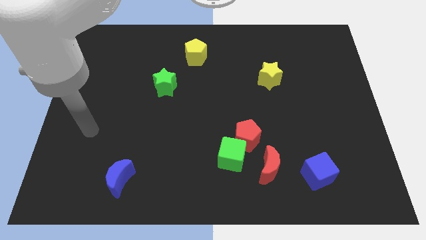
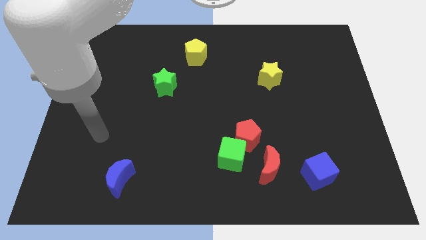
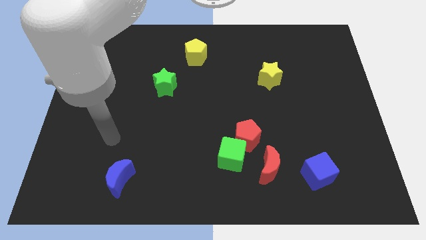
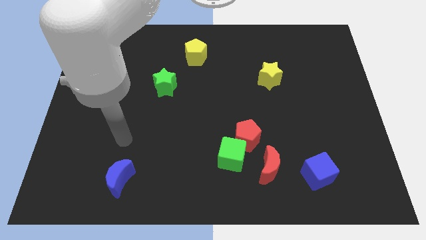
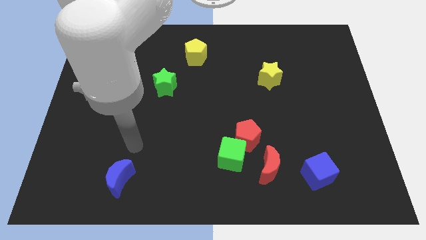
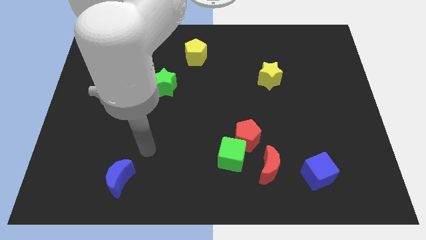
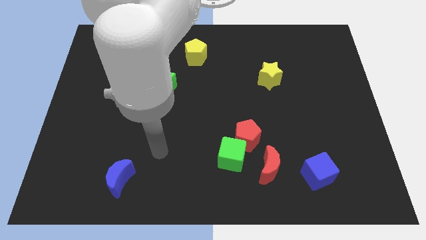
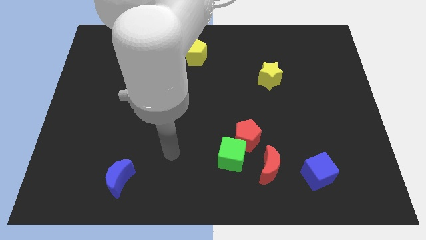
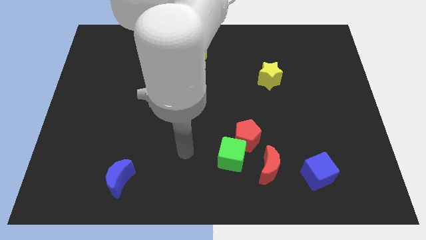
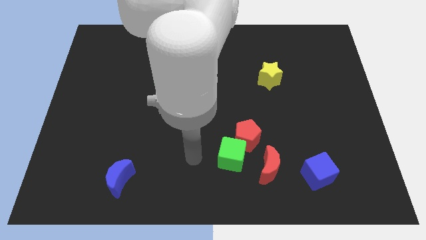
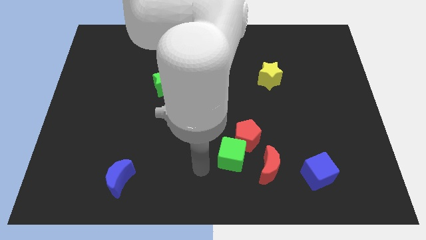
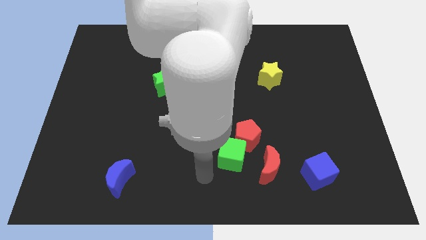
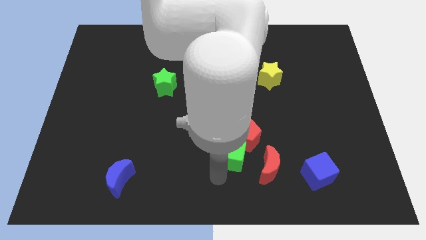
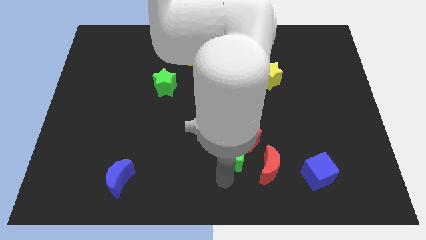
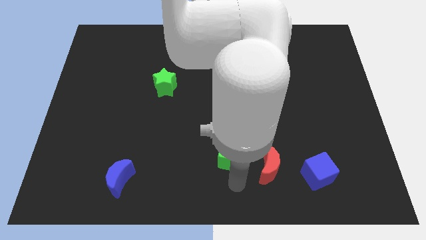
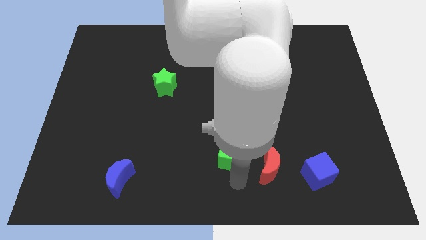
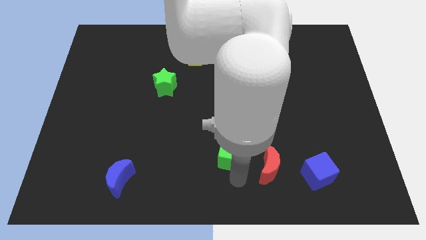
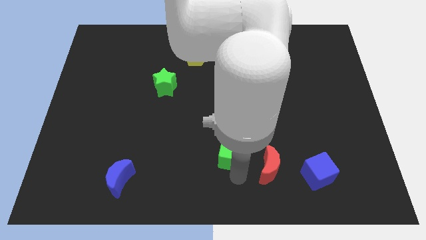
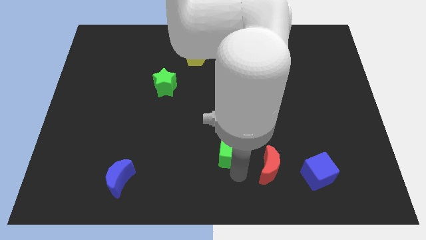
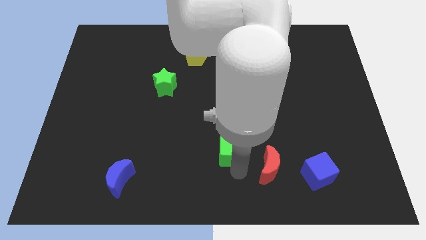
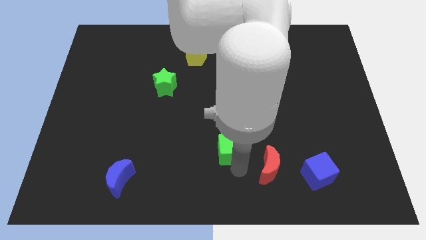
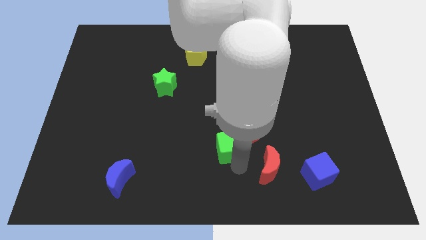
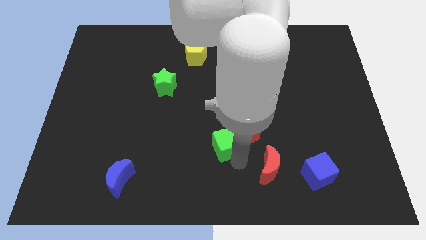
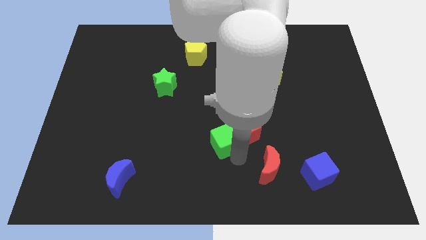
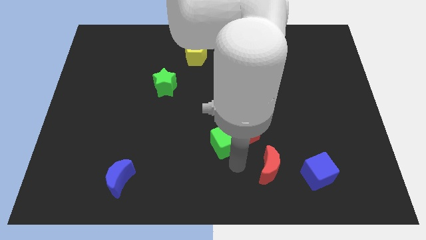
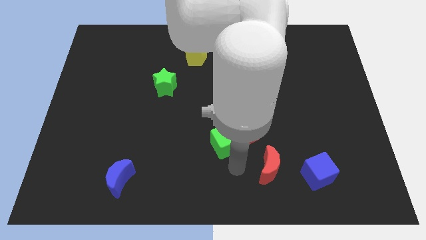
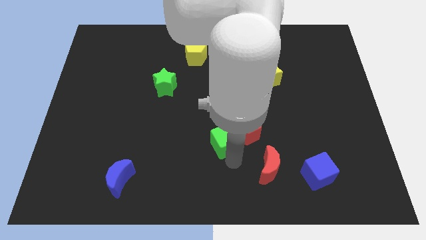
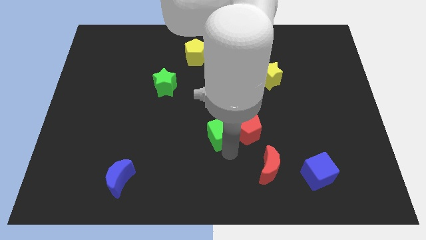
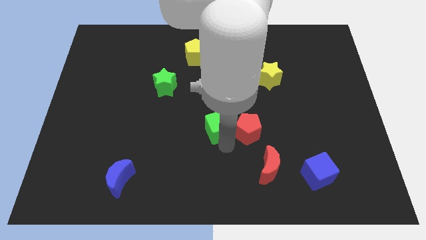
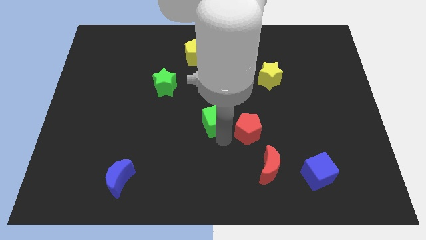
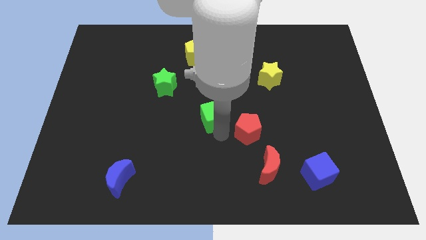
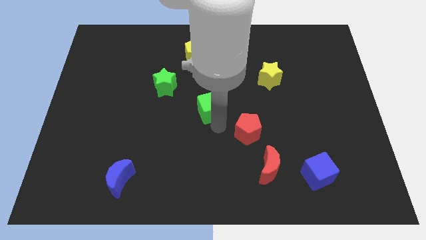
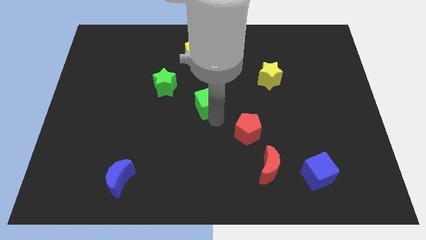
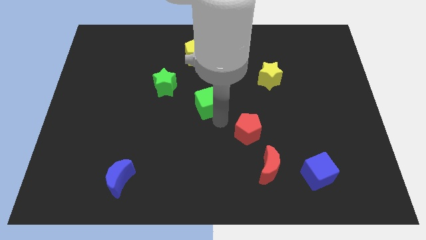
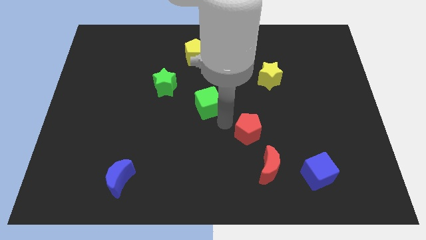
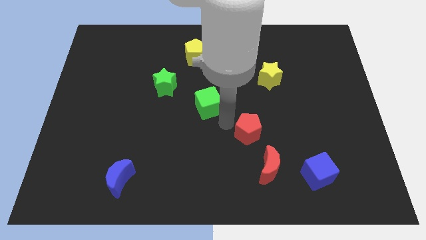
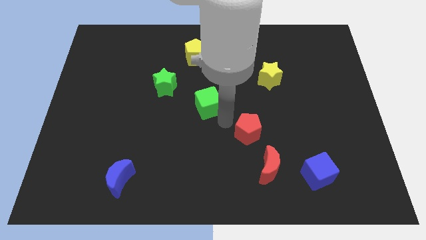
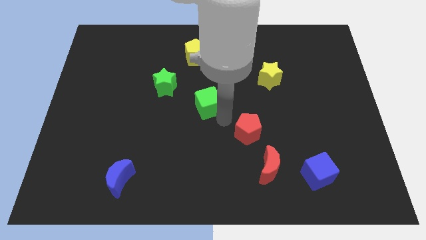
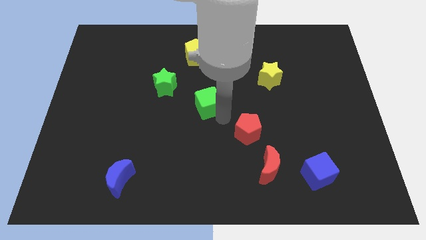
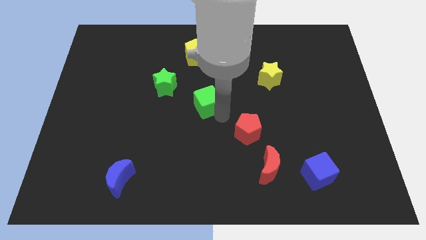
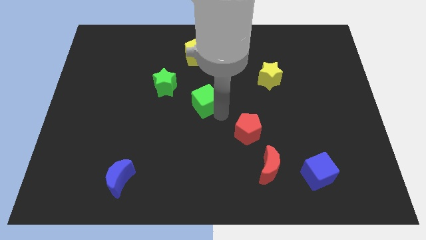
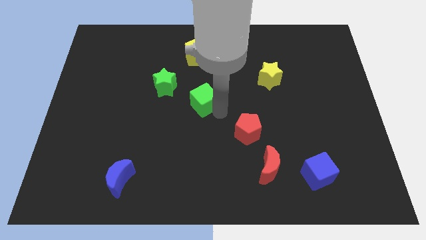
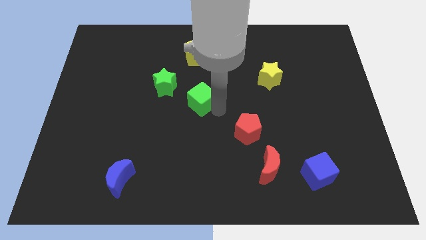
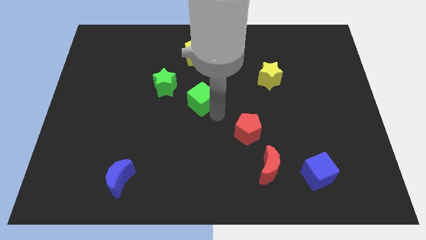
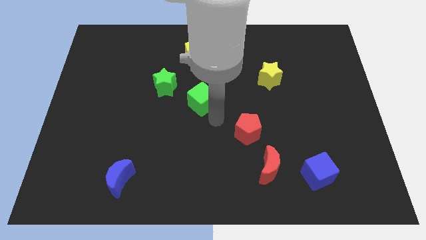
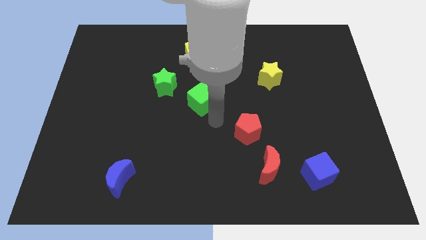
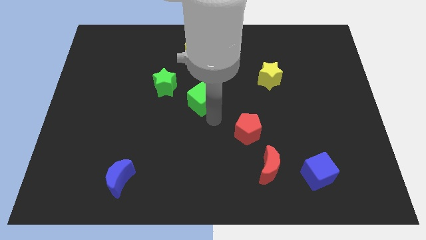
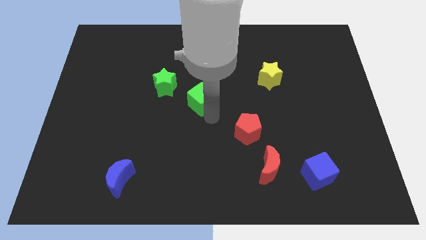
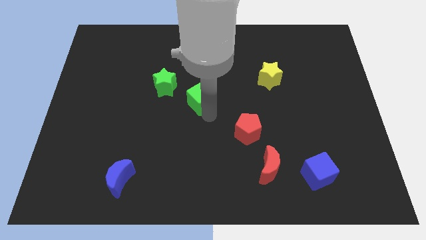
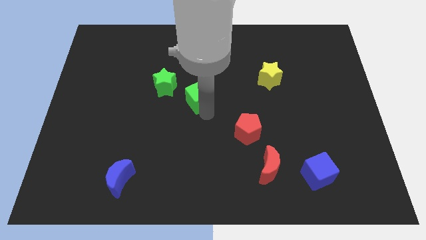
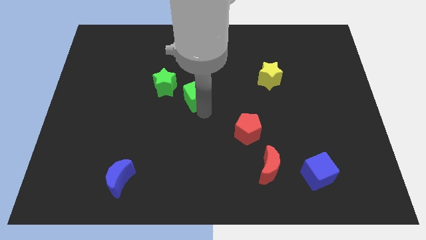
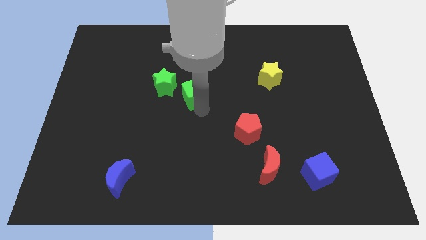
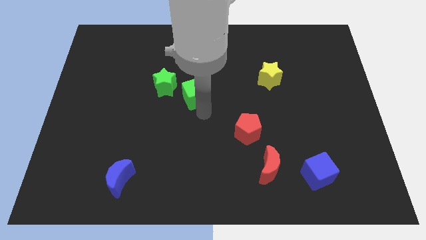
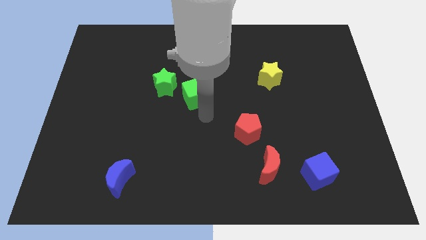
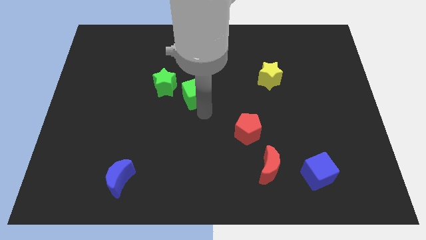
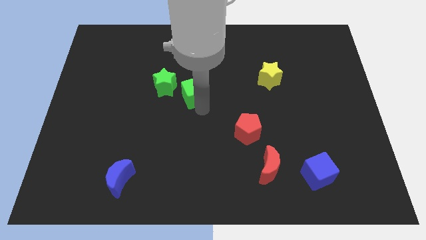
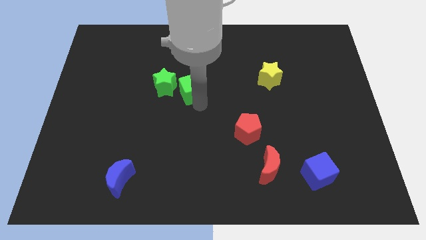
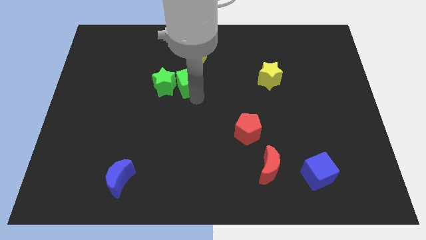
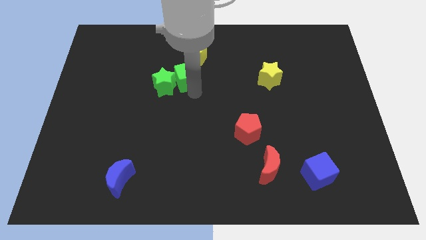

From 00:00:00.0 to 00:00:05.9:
move the green cube to the bottom left of the yellow pentagon

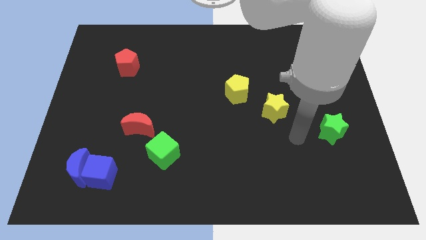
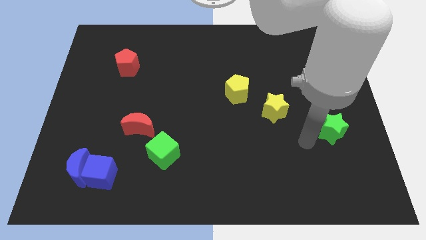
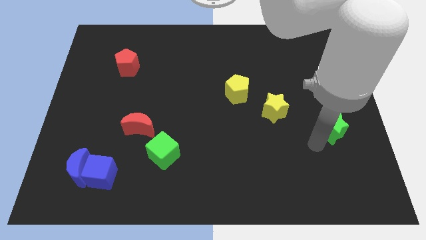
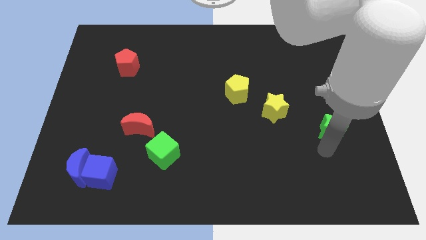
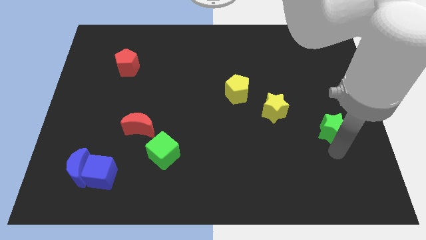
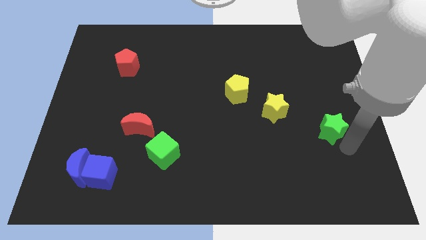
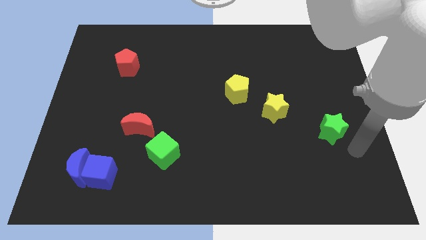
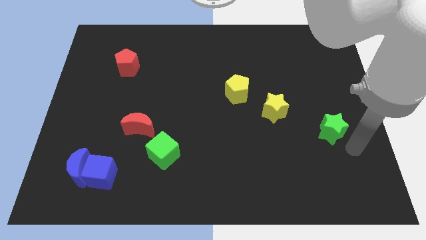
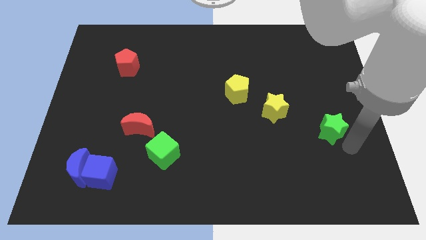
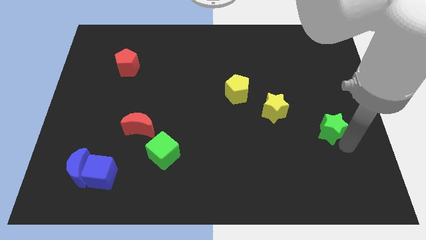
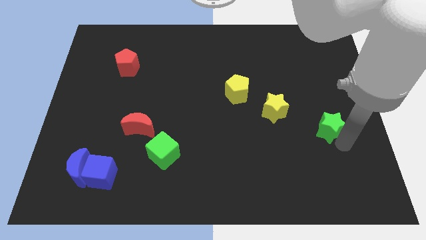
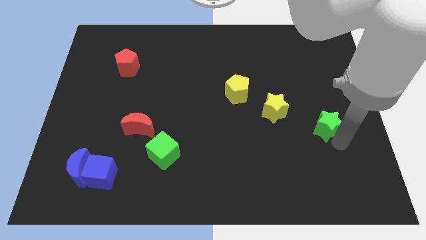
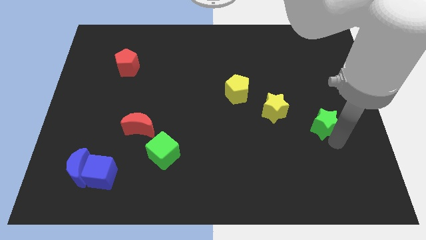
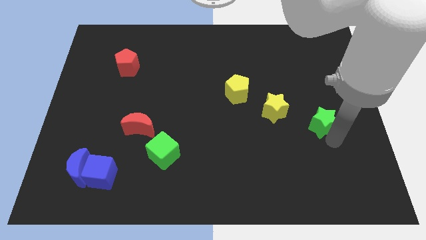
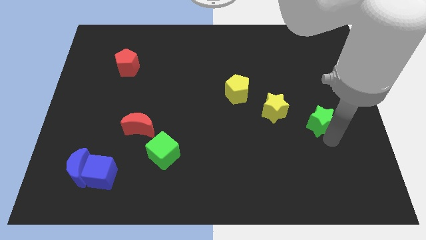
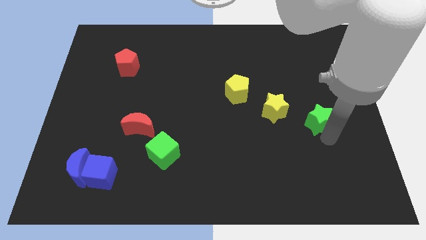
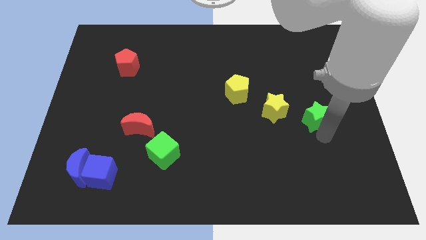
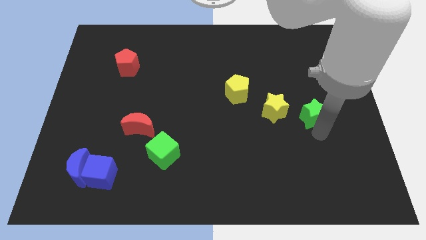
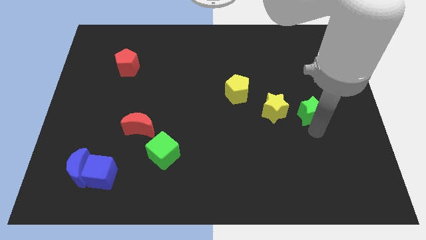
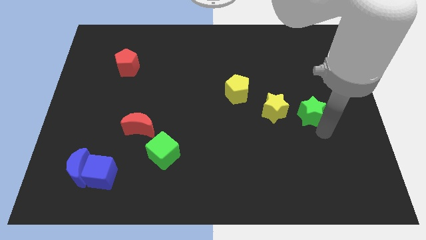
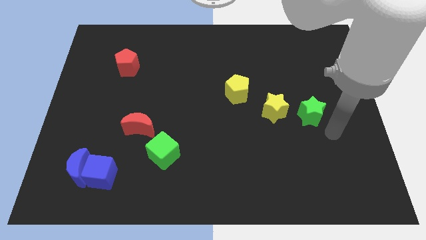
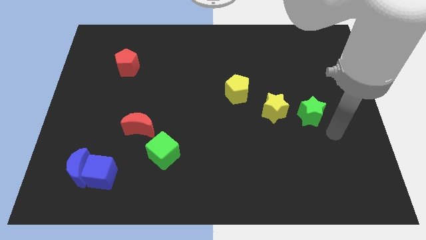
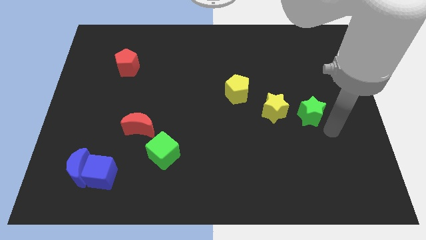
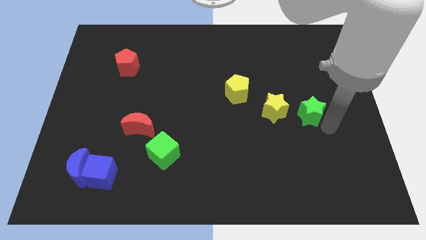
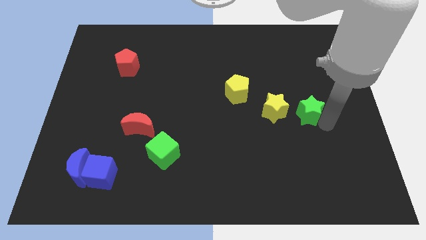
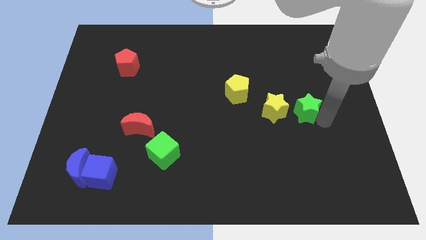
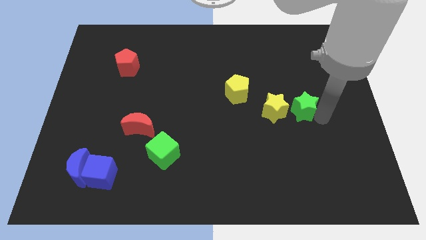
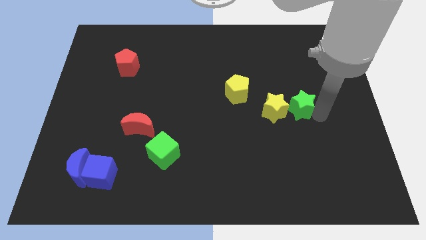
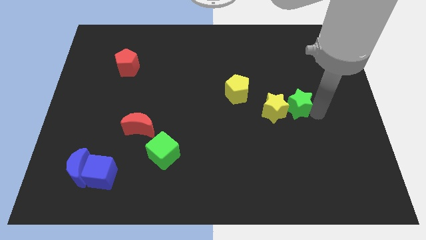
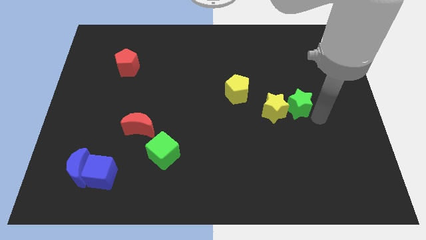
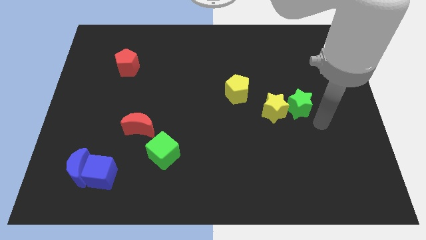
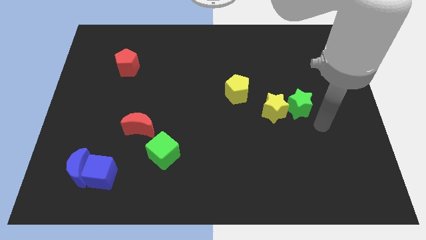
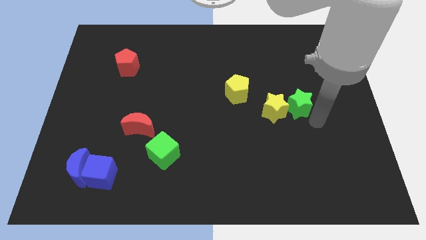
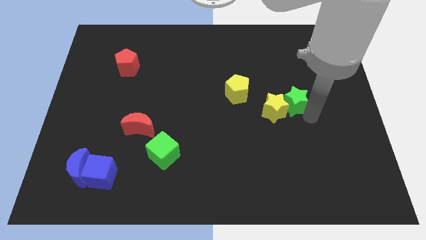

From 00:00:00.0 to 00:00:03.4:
put the green star to the right side of the yellow pentagon
